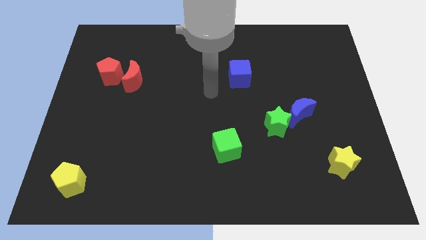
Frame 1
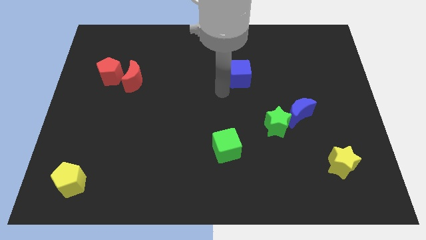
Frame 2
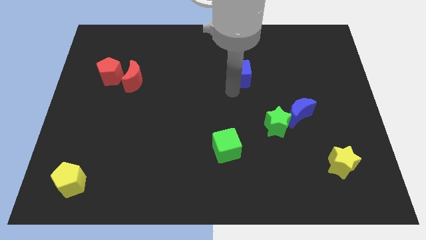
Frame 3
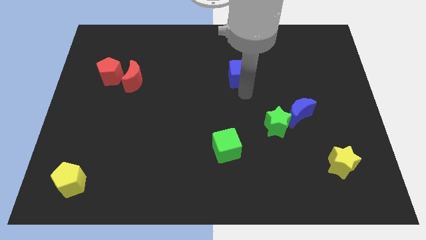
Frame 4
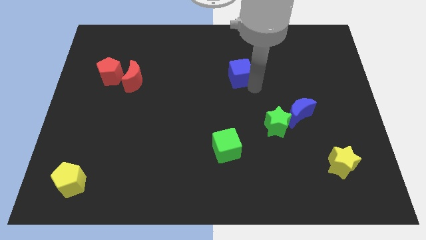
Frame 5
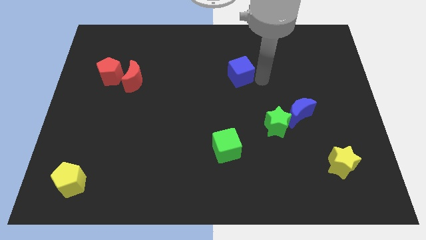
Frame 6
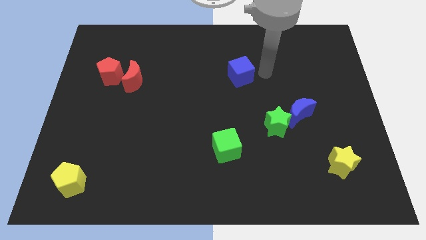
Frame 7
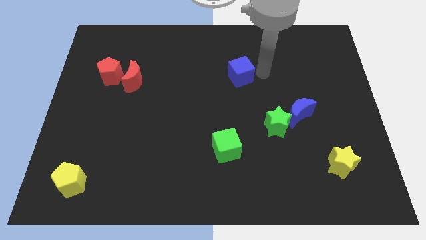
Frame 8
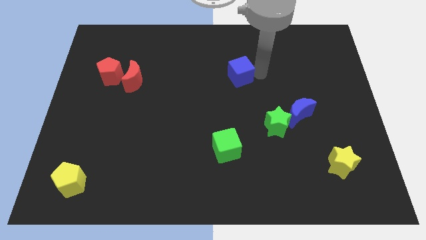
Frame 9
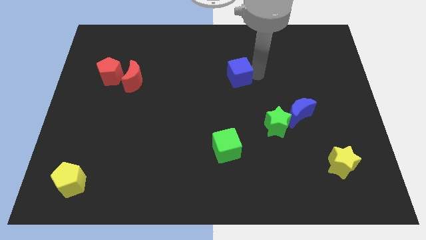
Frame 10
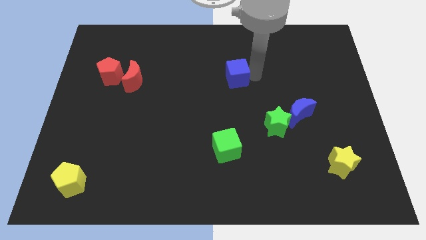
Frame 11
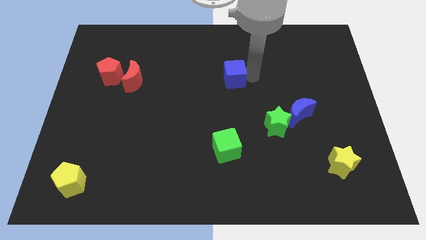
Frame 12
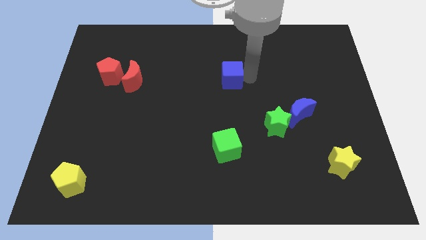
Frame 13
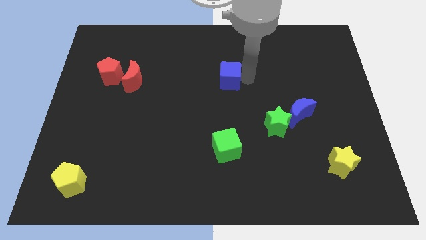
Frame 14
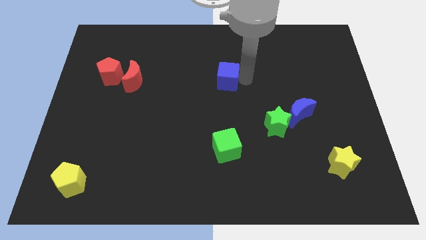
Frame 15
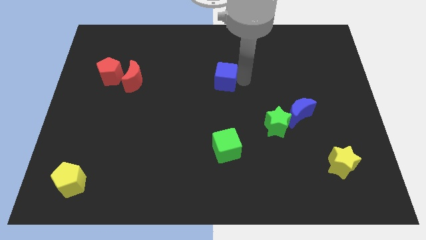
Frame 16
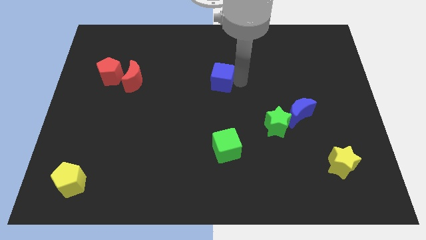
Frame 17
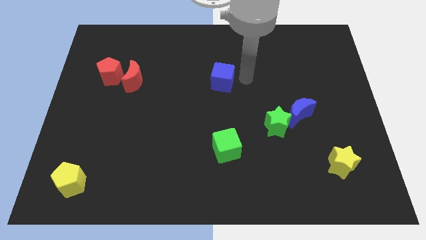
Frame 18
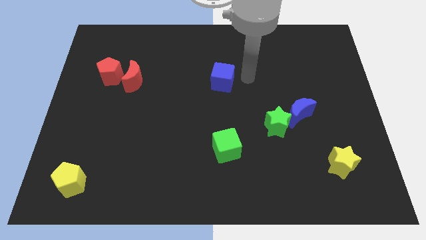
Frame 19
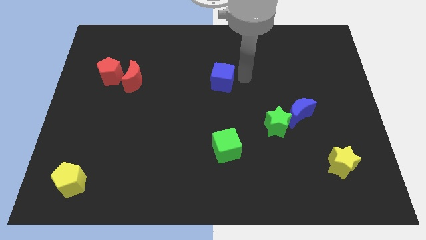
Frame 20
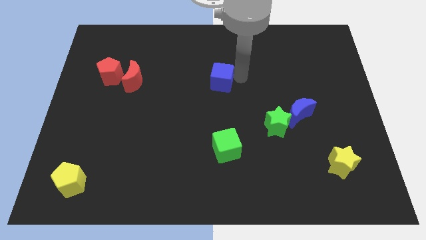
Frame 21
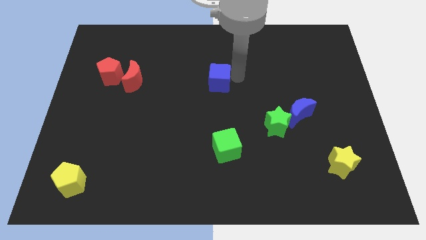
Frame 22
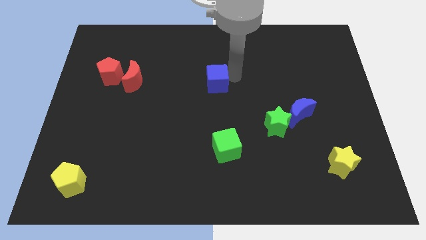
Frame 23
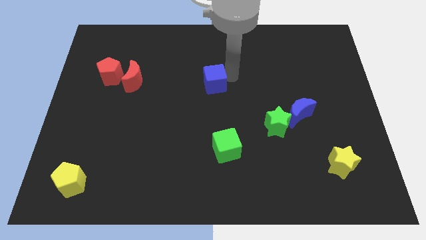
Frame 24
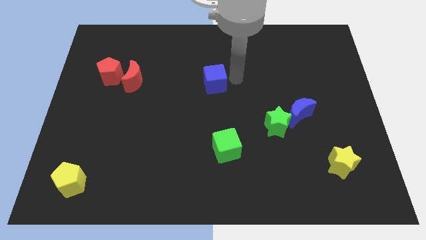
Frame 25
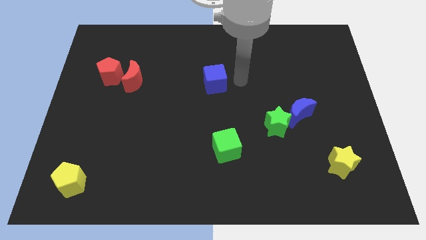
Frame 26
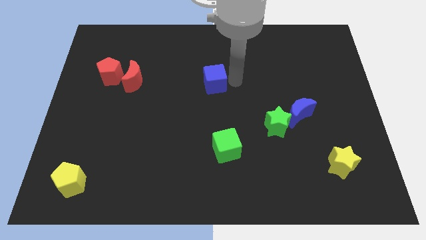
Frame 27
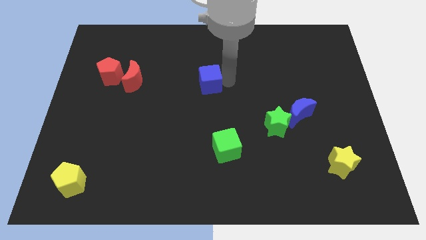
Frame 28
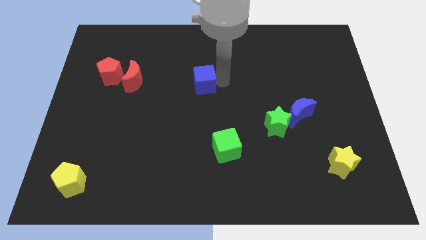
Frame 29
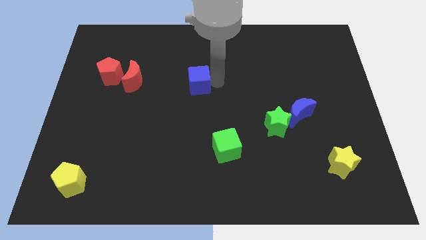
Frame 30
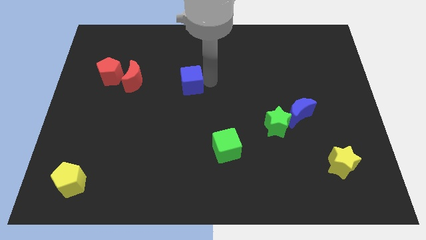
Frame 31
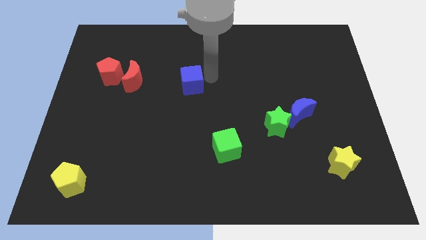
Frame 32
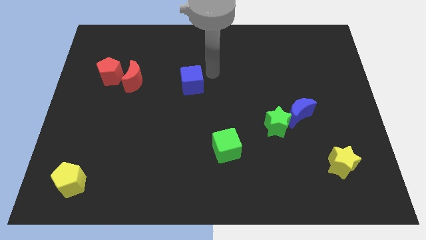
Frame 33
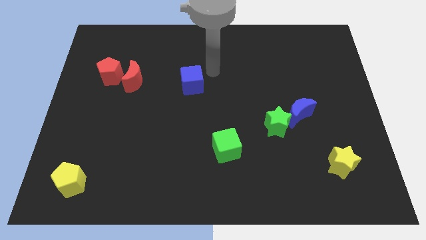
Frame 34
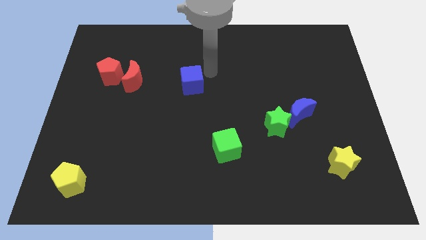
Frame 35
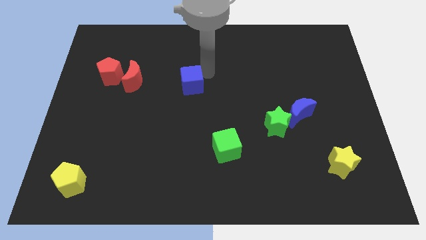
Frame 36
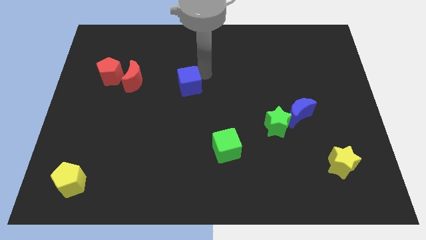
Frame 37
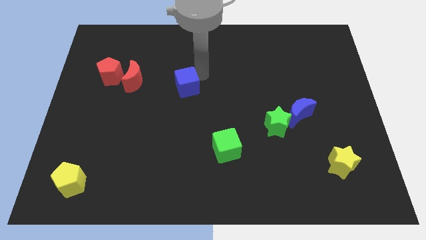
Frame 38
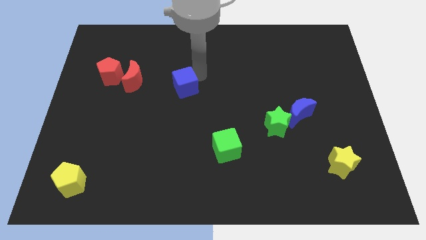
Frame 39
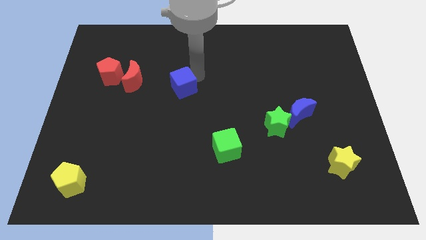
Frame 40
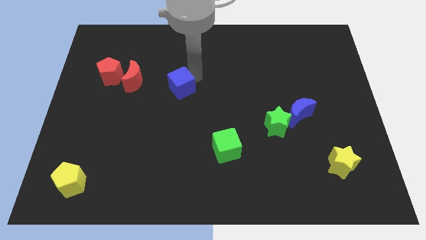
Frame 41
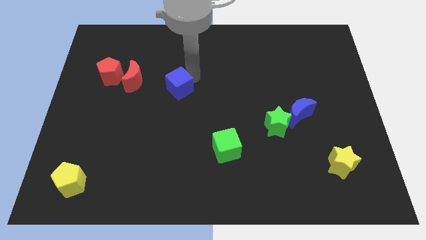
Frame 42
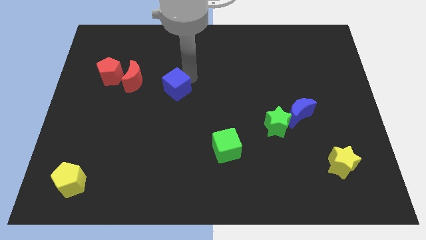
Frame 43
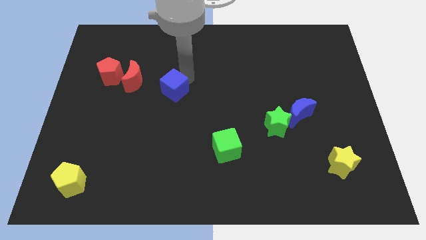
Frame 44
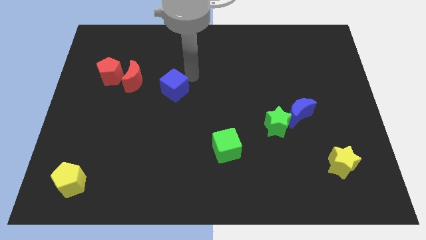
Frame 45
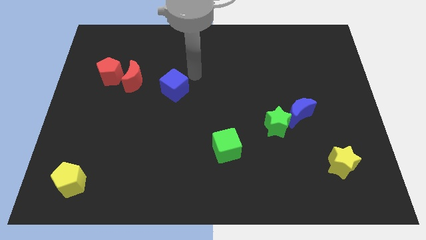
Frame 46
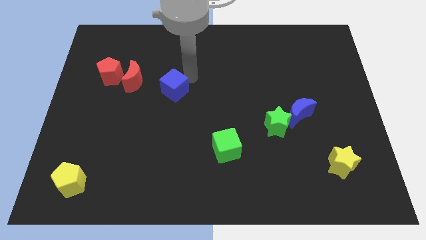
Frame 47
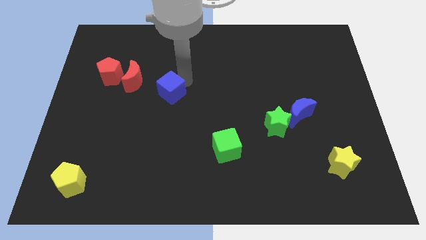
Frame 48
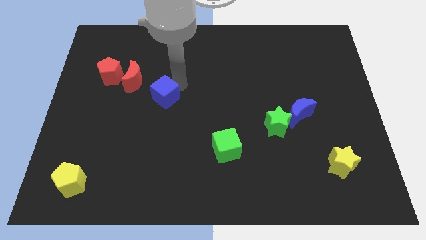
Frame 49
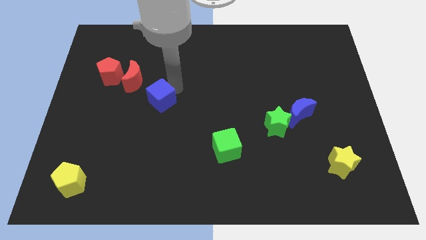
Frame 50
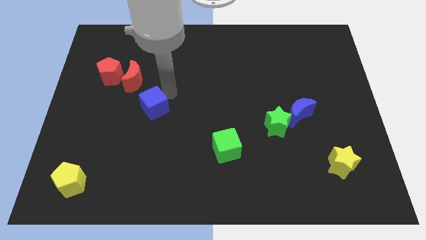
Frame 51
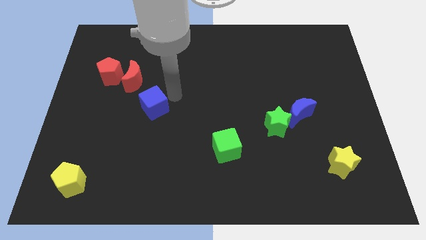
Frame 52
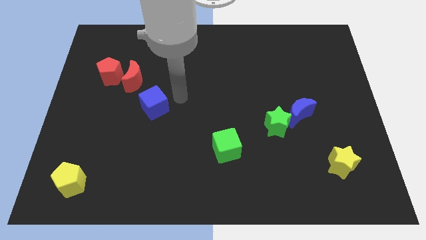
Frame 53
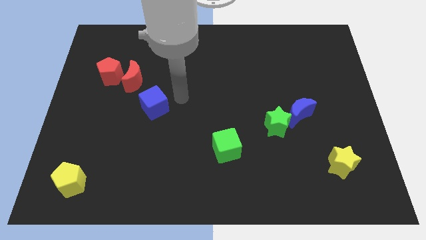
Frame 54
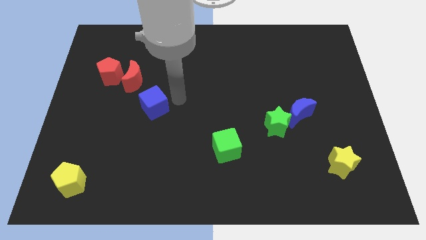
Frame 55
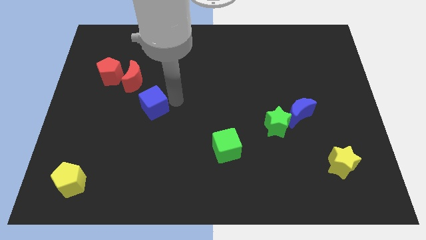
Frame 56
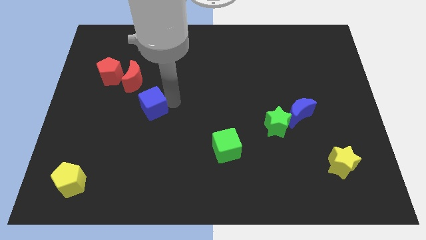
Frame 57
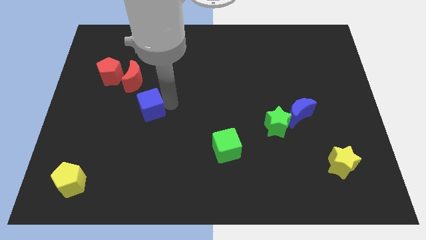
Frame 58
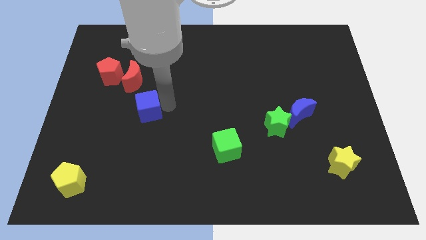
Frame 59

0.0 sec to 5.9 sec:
slide the blue cube to the bottom side of the red moon

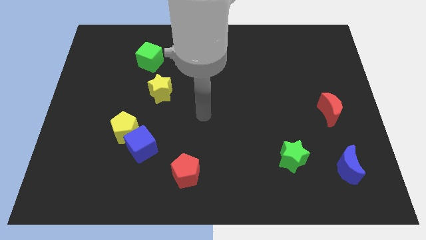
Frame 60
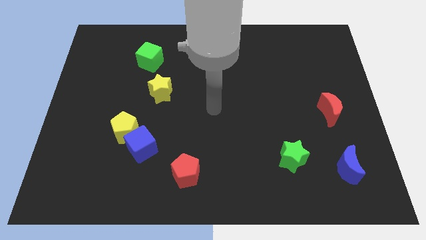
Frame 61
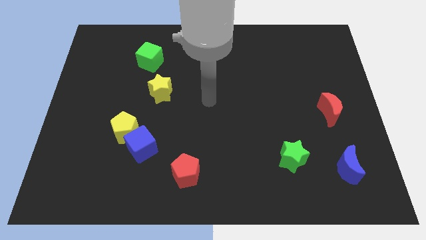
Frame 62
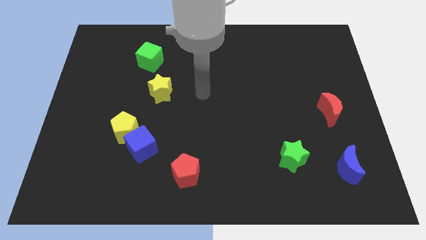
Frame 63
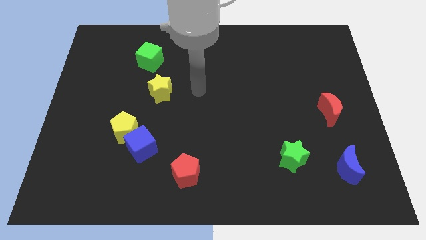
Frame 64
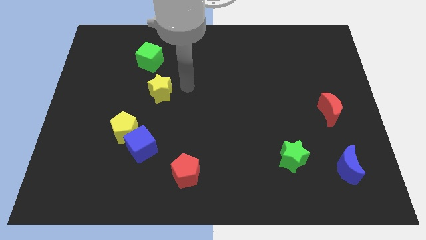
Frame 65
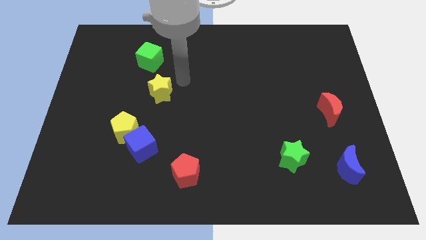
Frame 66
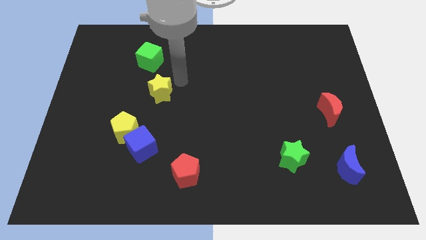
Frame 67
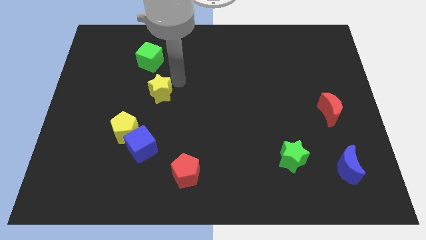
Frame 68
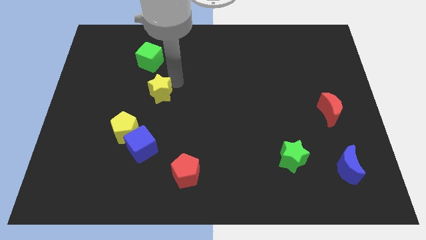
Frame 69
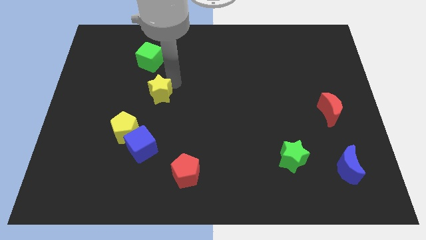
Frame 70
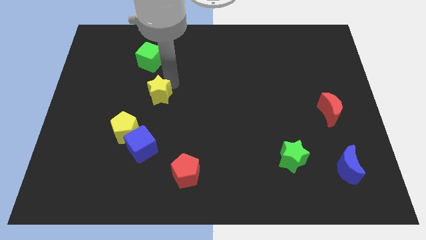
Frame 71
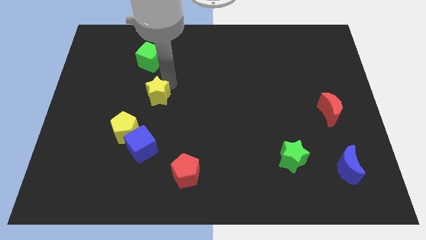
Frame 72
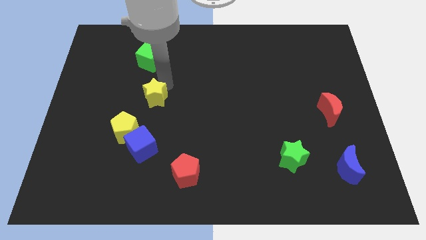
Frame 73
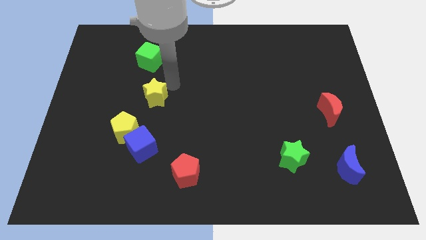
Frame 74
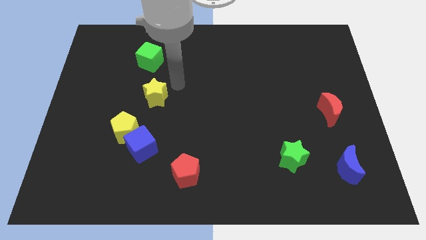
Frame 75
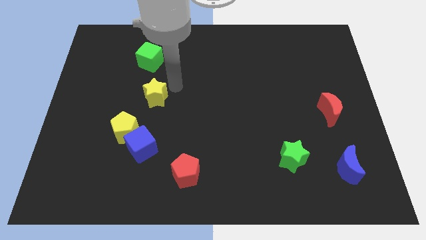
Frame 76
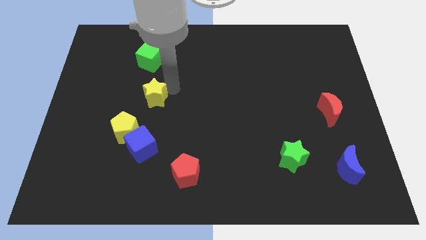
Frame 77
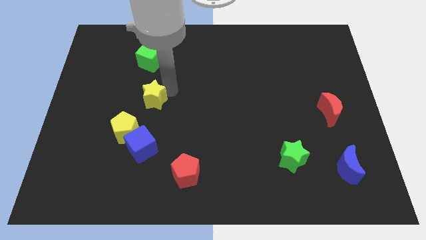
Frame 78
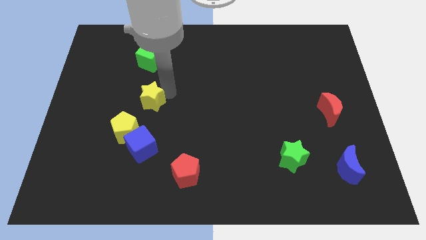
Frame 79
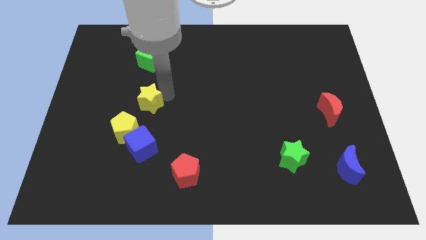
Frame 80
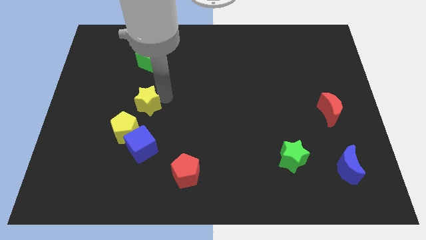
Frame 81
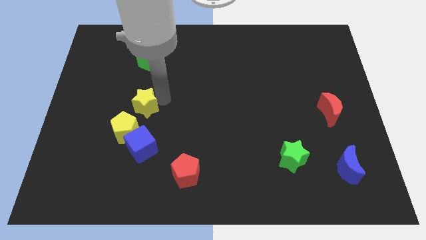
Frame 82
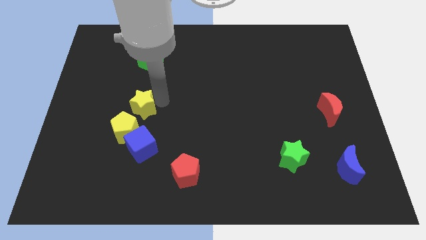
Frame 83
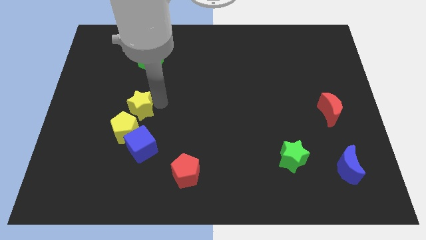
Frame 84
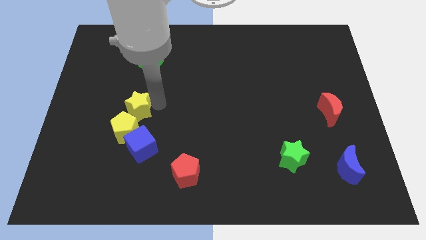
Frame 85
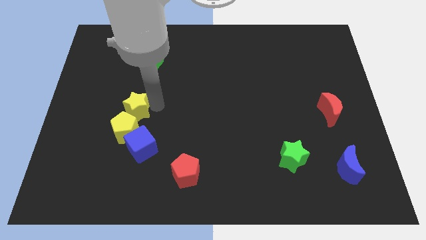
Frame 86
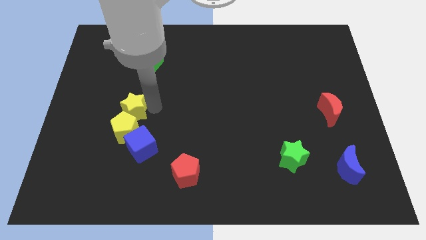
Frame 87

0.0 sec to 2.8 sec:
push the yellow star diagonally up and to the left of the yellow pentagon
